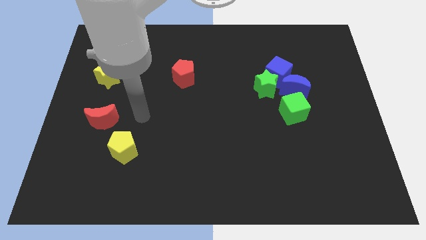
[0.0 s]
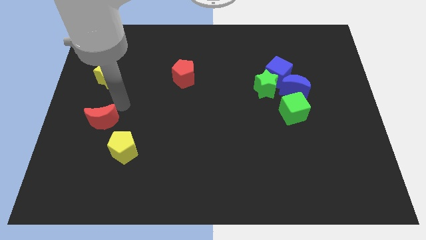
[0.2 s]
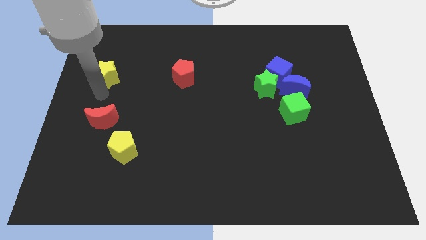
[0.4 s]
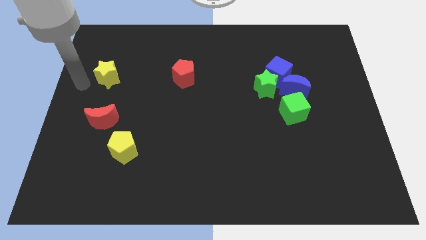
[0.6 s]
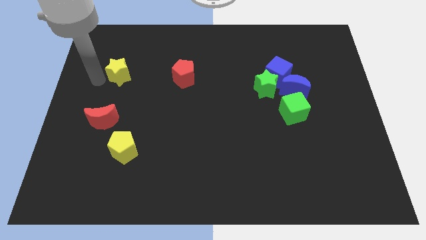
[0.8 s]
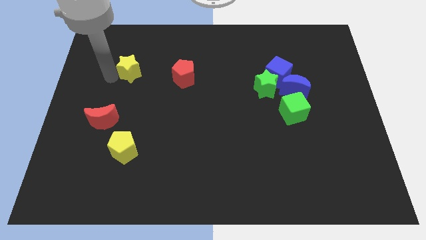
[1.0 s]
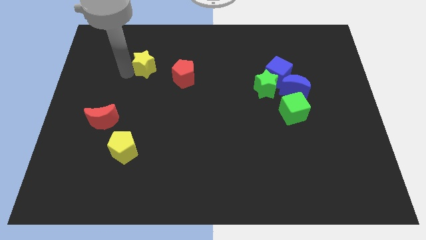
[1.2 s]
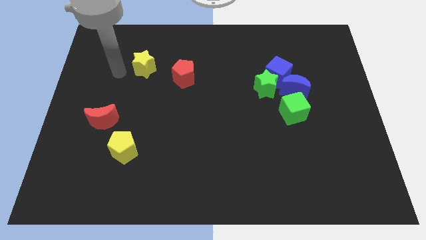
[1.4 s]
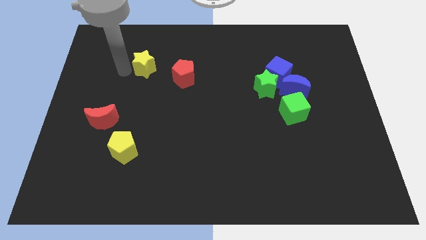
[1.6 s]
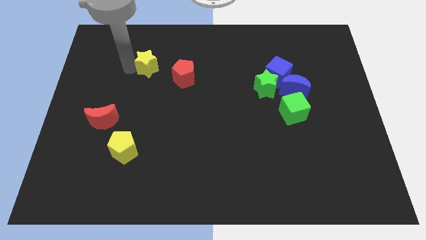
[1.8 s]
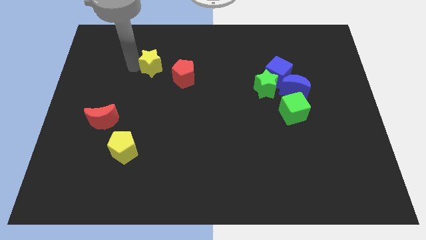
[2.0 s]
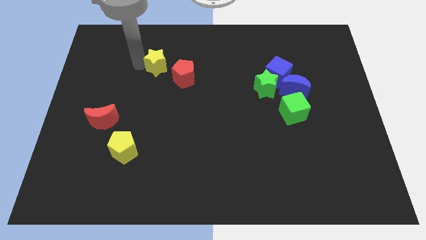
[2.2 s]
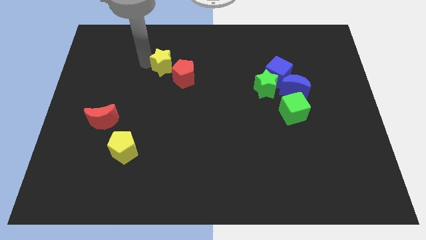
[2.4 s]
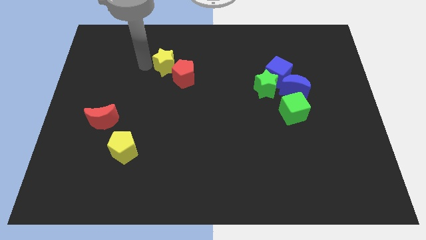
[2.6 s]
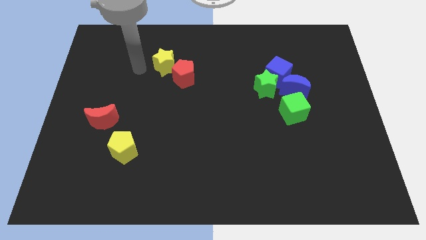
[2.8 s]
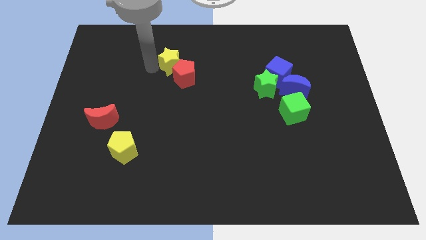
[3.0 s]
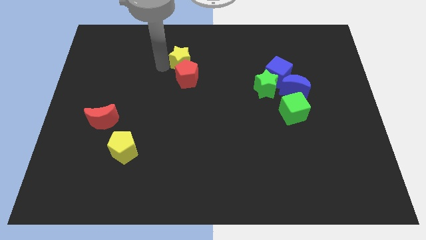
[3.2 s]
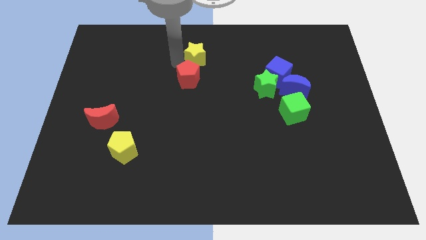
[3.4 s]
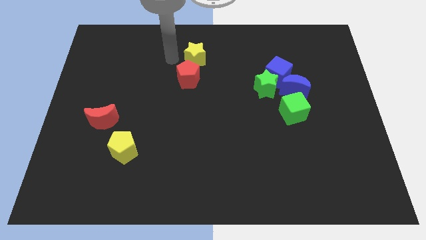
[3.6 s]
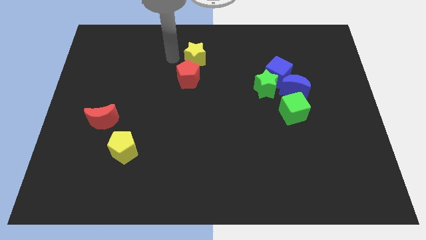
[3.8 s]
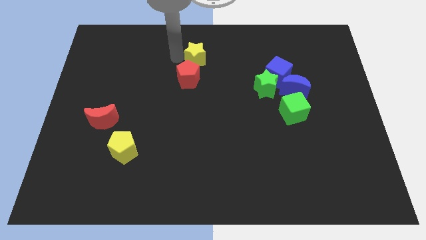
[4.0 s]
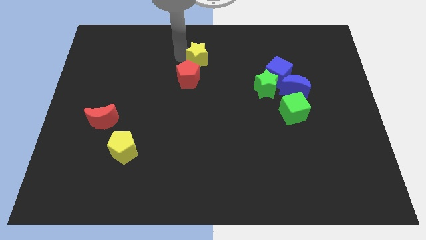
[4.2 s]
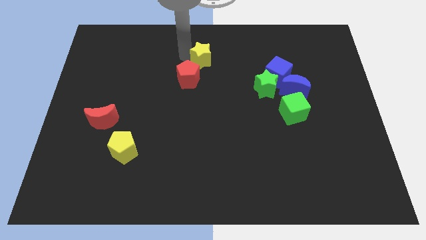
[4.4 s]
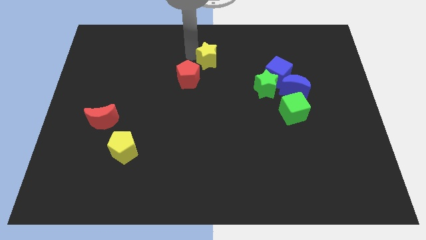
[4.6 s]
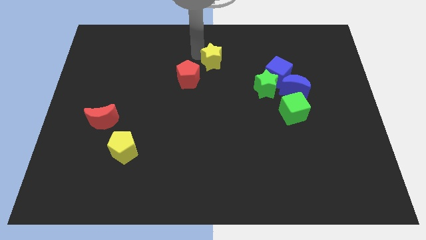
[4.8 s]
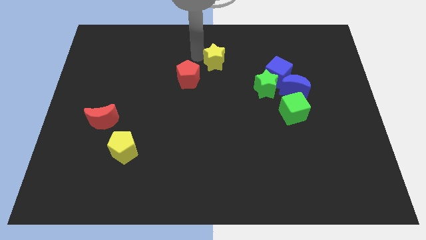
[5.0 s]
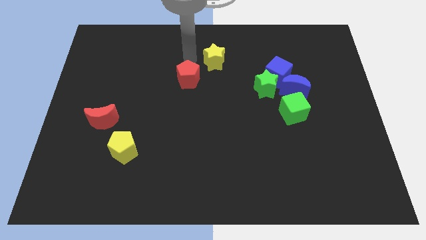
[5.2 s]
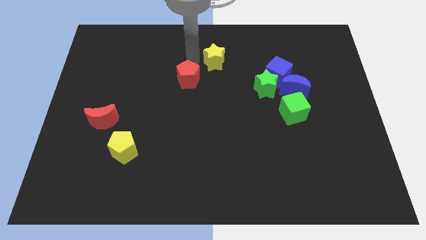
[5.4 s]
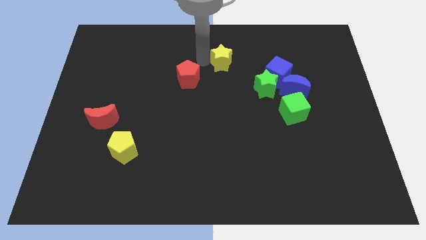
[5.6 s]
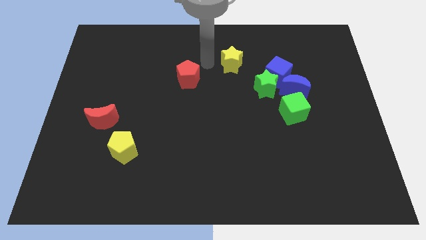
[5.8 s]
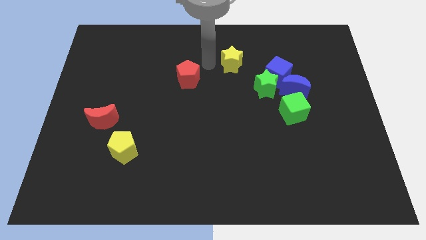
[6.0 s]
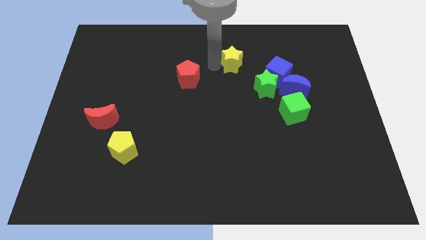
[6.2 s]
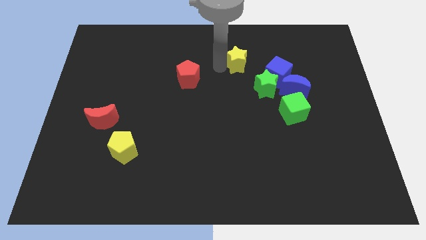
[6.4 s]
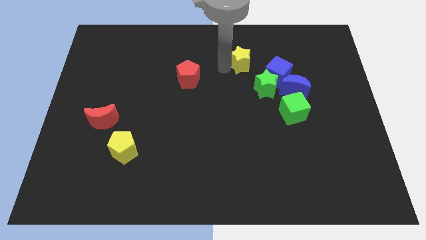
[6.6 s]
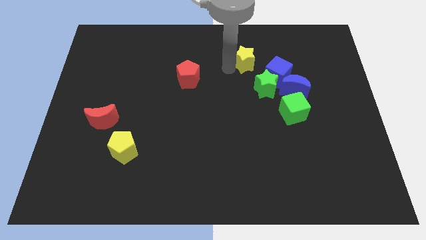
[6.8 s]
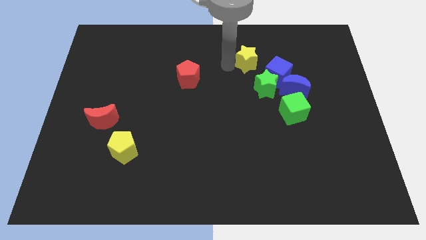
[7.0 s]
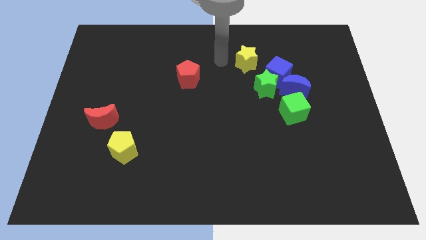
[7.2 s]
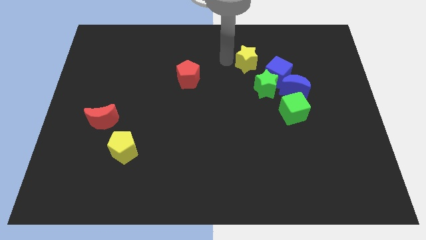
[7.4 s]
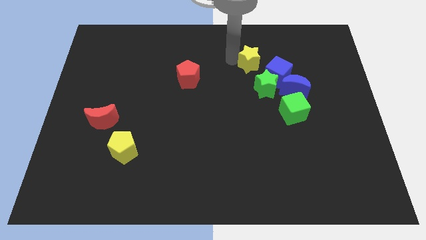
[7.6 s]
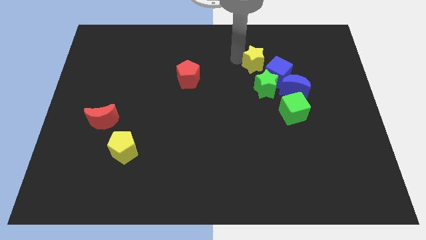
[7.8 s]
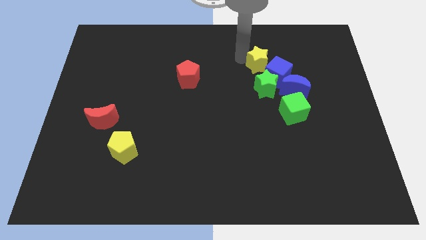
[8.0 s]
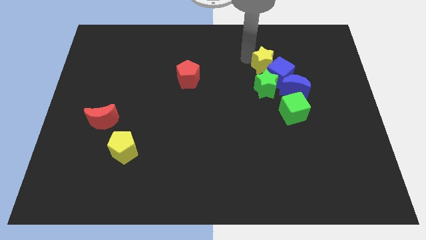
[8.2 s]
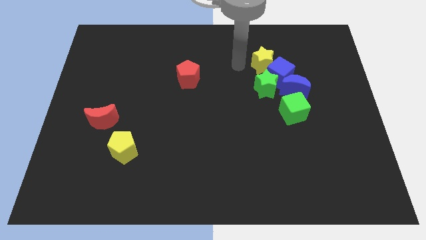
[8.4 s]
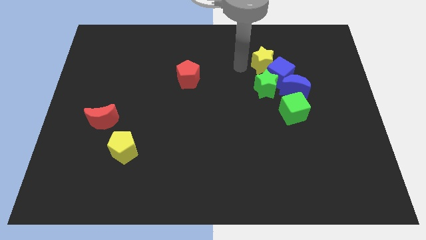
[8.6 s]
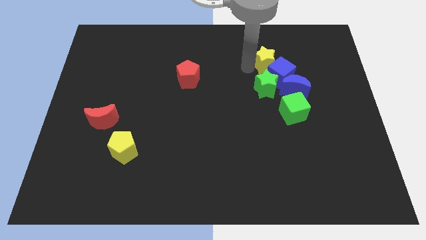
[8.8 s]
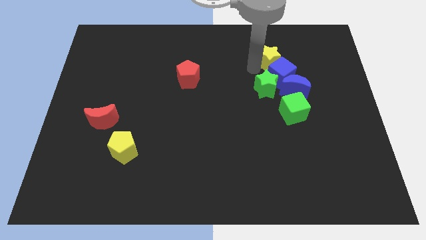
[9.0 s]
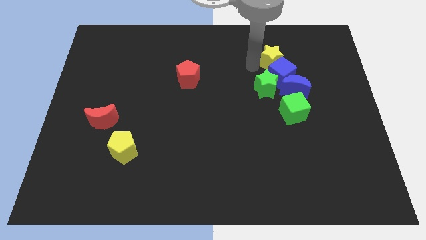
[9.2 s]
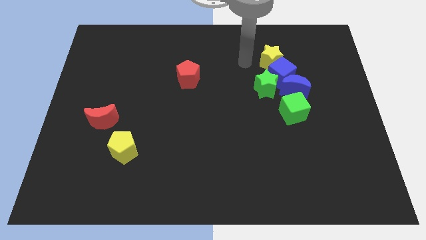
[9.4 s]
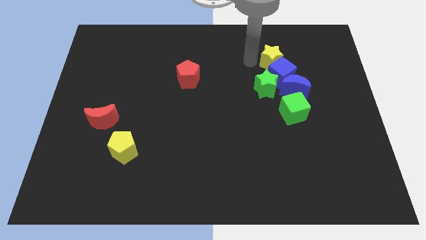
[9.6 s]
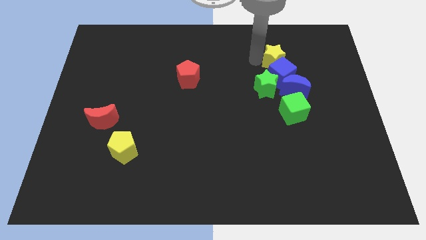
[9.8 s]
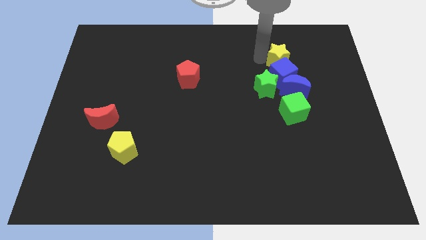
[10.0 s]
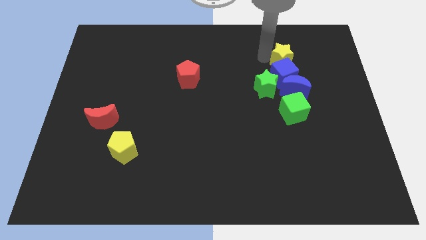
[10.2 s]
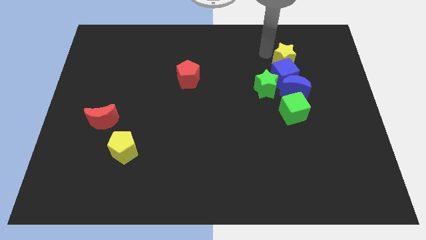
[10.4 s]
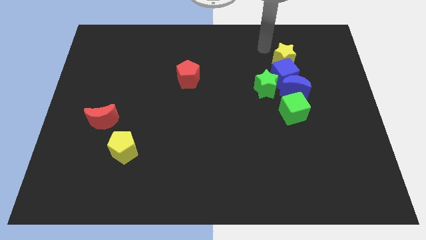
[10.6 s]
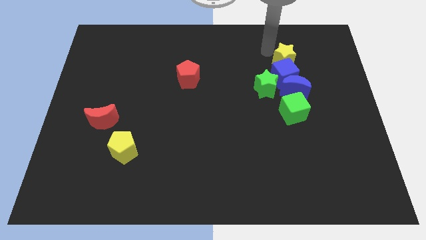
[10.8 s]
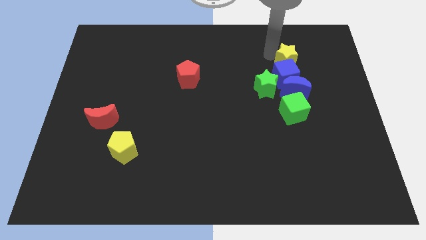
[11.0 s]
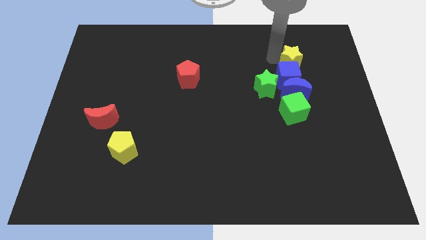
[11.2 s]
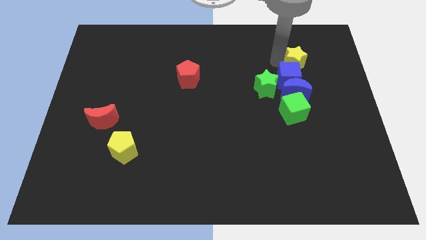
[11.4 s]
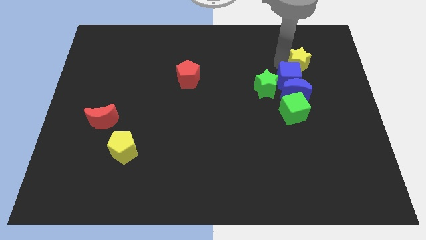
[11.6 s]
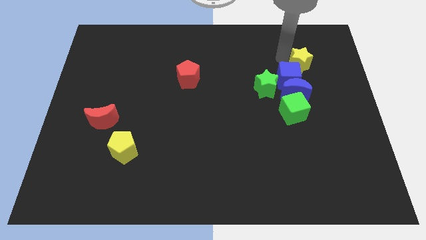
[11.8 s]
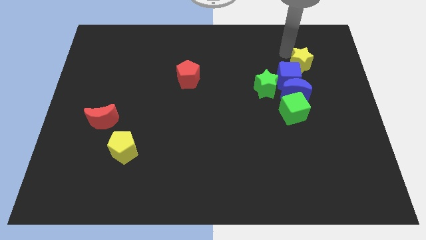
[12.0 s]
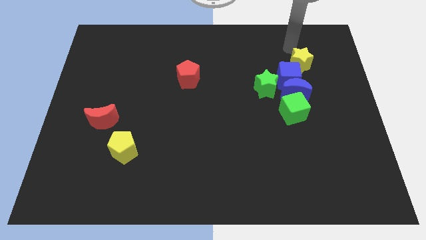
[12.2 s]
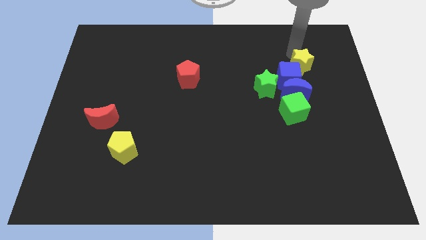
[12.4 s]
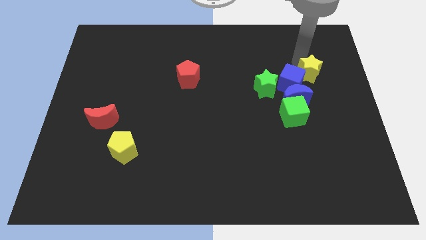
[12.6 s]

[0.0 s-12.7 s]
move the yellow star to the right side of the green star

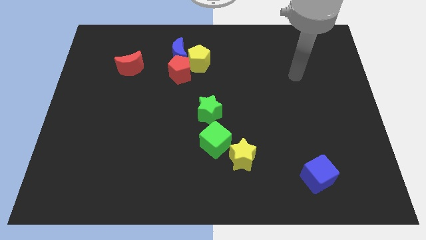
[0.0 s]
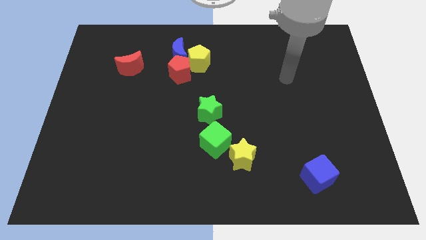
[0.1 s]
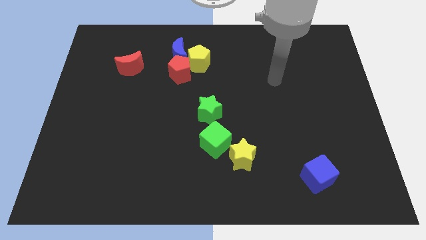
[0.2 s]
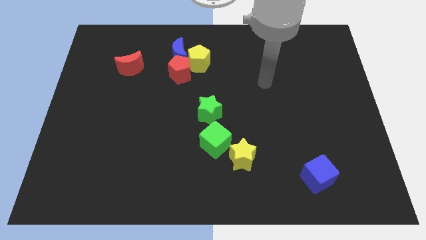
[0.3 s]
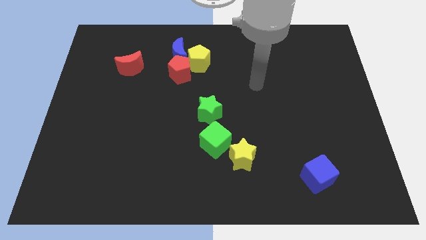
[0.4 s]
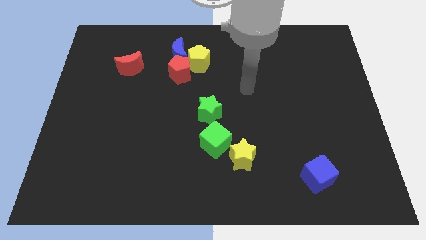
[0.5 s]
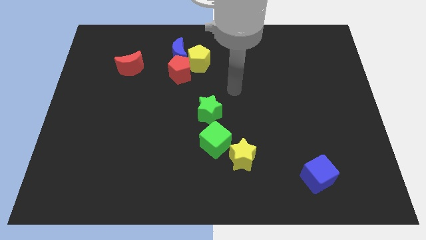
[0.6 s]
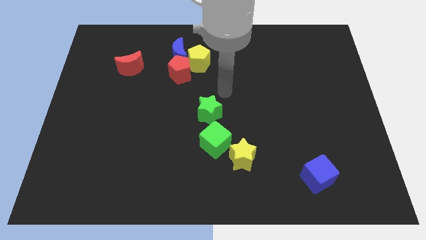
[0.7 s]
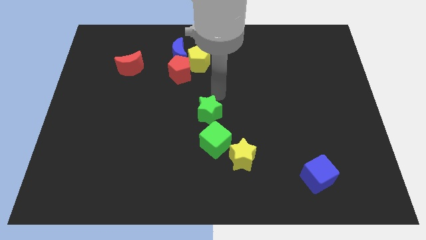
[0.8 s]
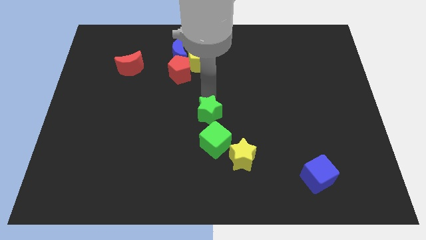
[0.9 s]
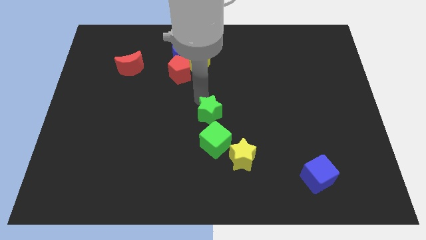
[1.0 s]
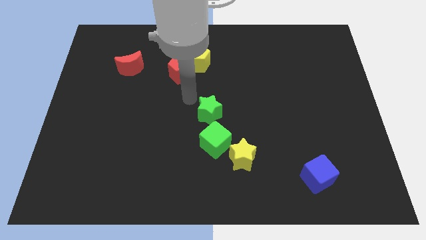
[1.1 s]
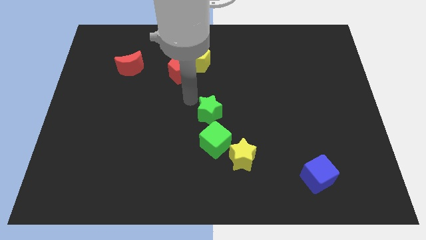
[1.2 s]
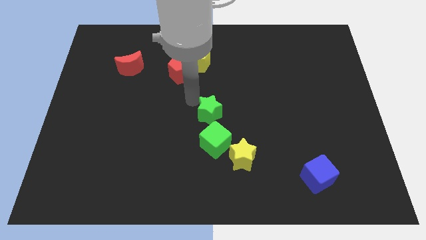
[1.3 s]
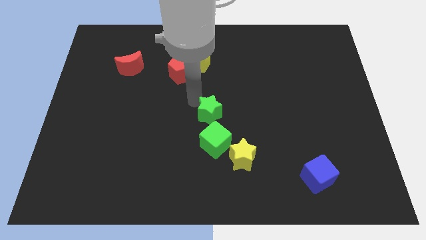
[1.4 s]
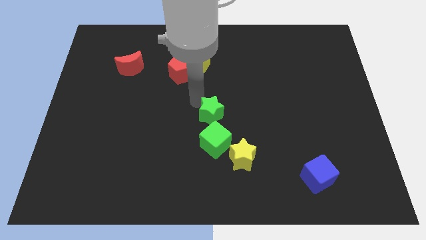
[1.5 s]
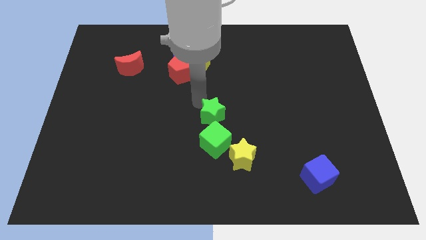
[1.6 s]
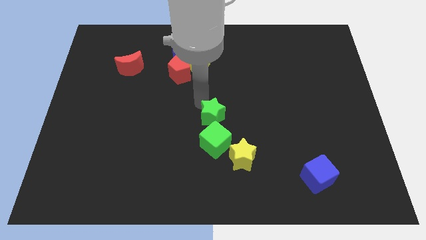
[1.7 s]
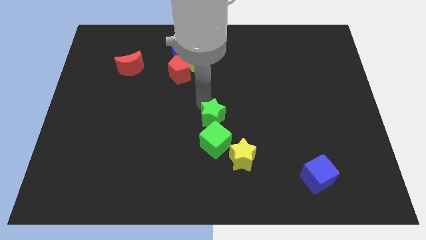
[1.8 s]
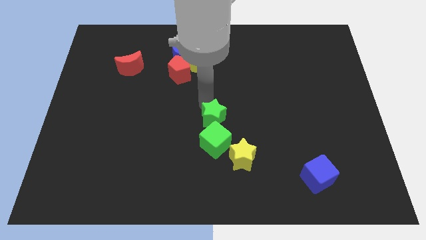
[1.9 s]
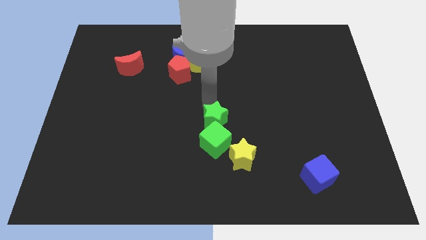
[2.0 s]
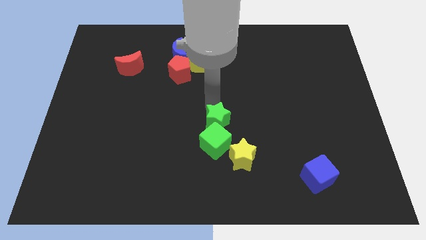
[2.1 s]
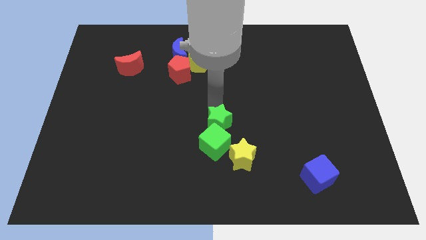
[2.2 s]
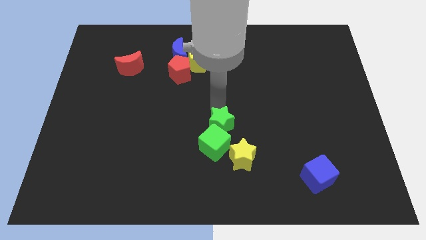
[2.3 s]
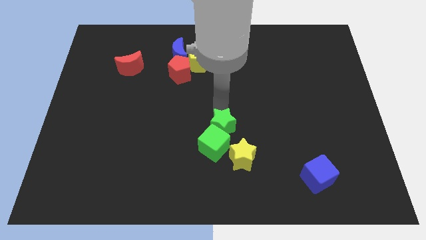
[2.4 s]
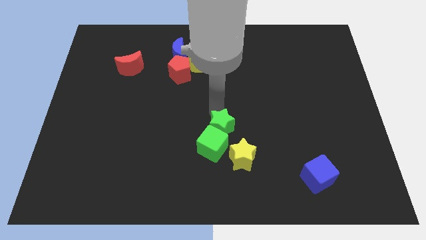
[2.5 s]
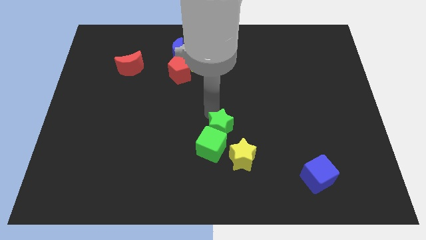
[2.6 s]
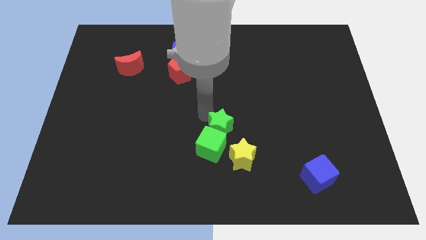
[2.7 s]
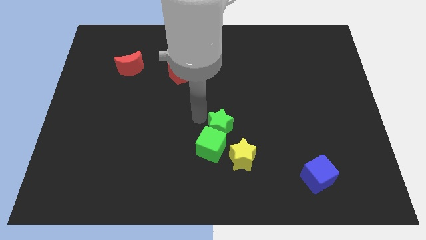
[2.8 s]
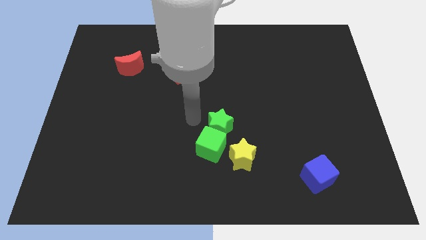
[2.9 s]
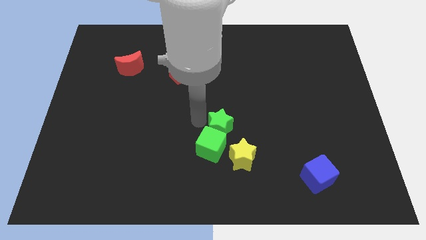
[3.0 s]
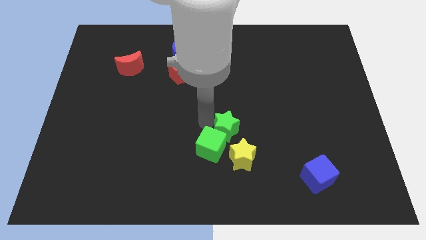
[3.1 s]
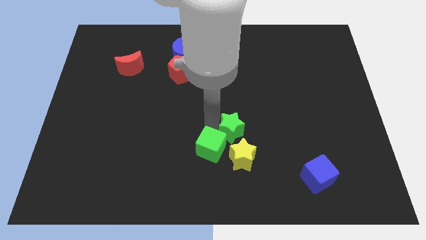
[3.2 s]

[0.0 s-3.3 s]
put the green star just right of the green cube
